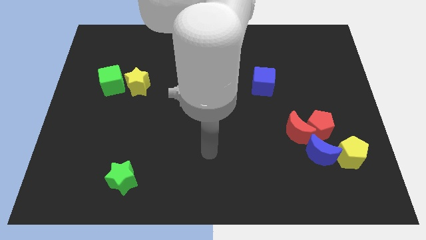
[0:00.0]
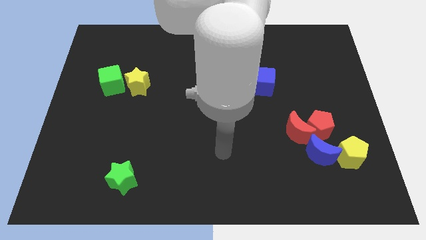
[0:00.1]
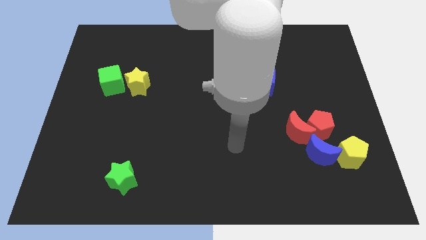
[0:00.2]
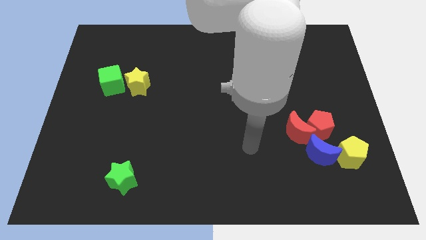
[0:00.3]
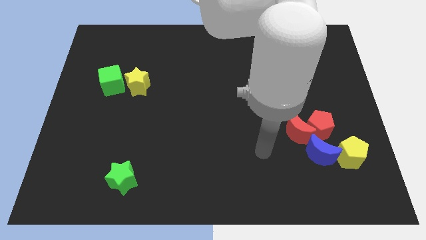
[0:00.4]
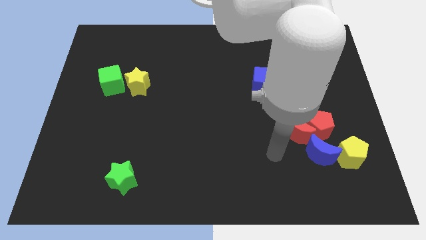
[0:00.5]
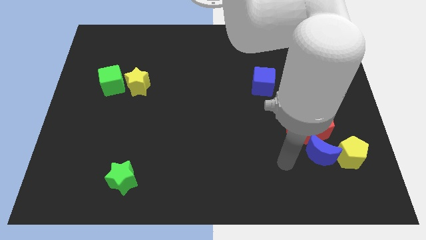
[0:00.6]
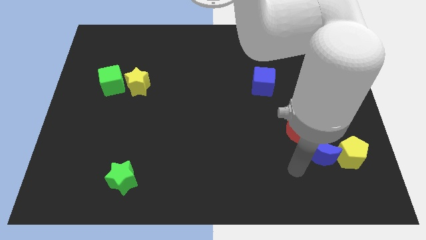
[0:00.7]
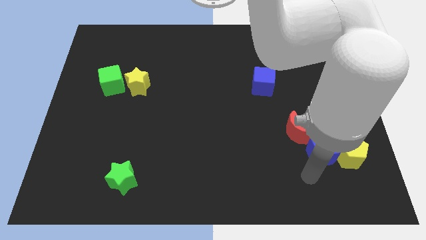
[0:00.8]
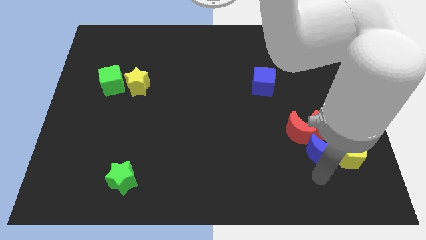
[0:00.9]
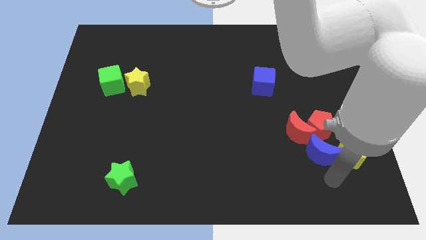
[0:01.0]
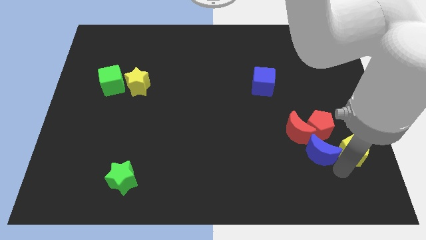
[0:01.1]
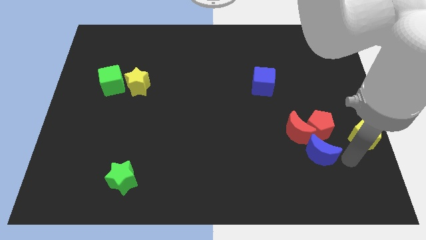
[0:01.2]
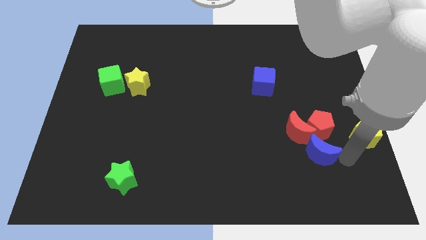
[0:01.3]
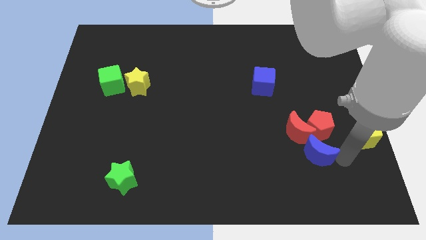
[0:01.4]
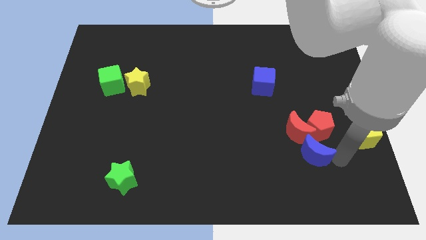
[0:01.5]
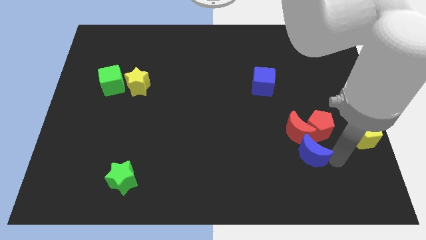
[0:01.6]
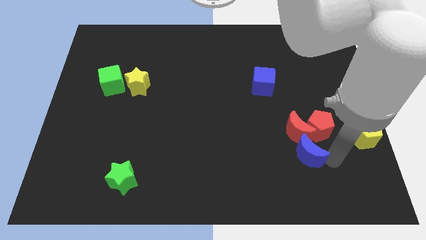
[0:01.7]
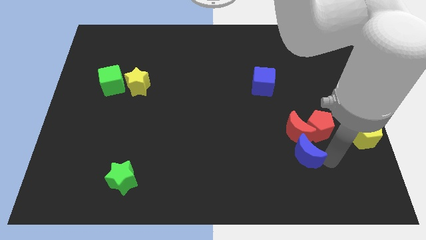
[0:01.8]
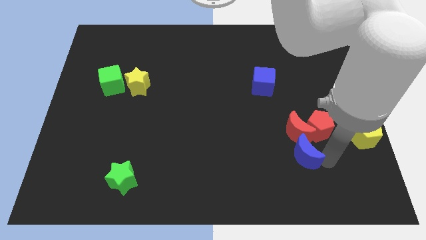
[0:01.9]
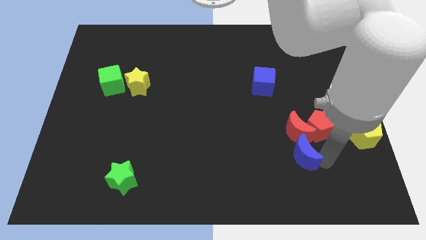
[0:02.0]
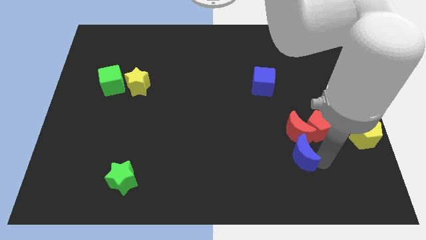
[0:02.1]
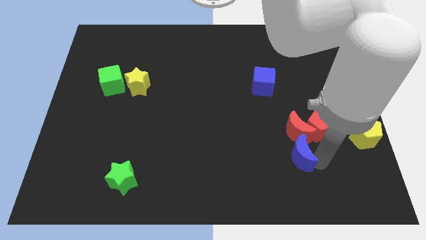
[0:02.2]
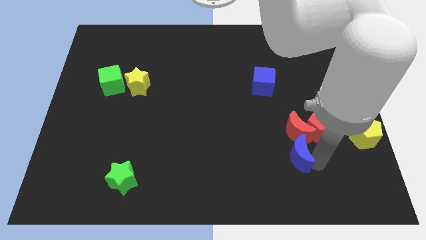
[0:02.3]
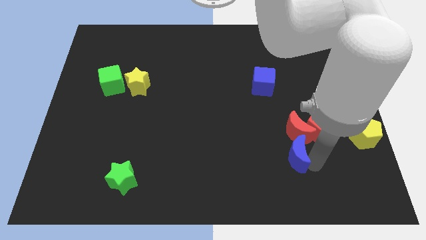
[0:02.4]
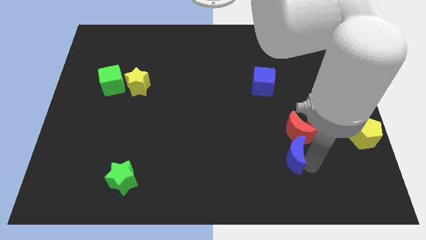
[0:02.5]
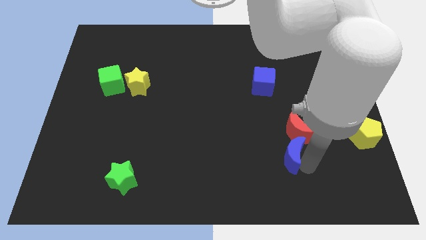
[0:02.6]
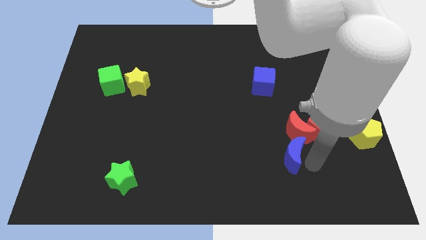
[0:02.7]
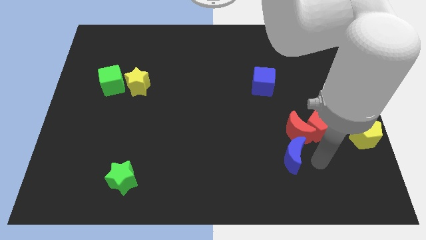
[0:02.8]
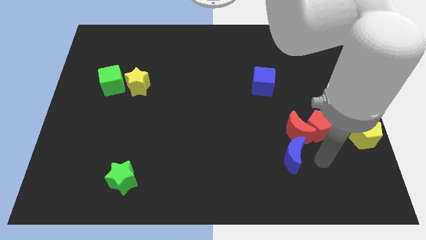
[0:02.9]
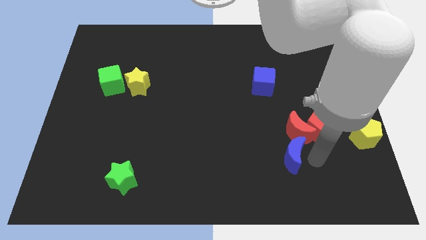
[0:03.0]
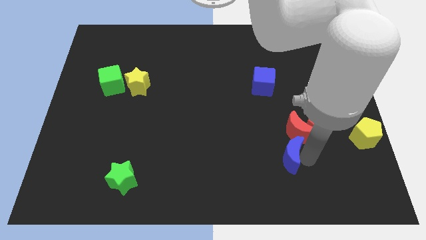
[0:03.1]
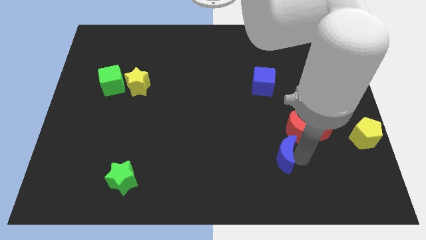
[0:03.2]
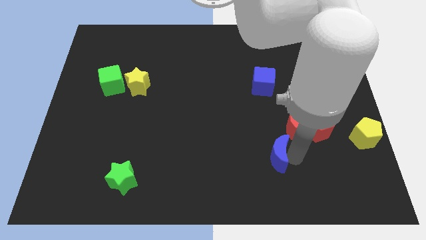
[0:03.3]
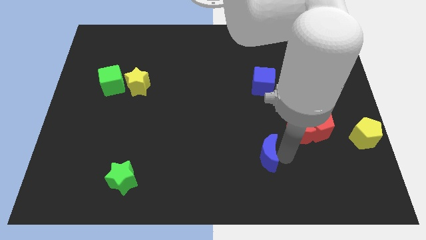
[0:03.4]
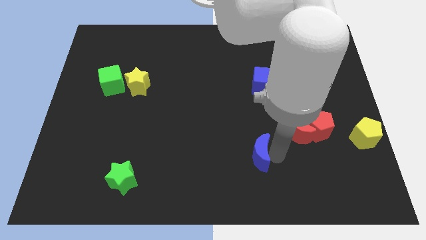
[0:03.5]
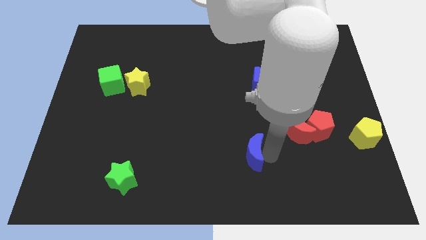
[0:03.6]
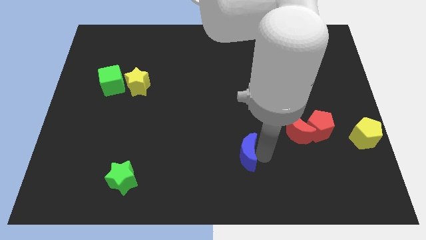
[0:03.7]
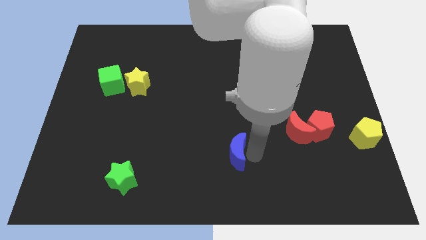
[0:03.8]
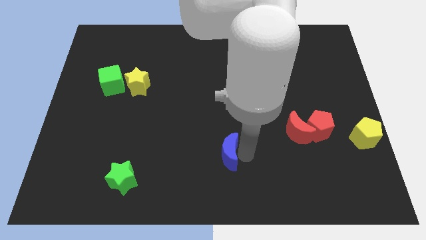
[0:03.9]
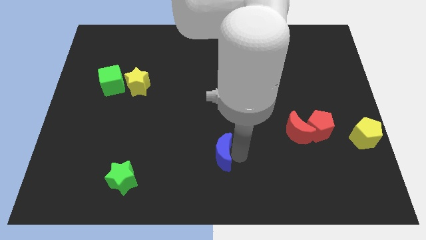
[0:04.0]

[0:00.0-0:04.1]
move the blue moon to the left

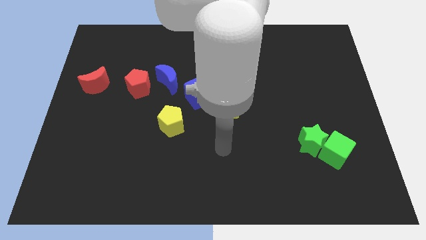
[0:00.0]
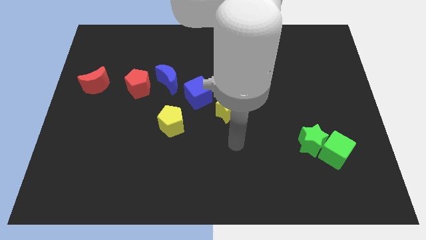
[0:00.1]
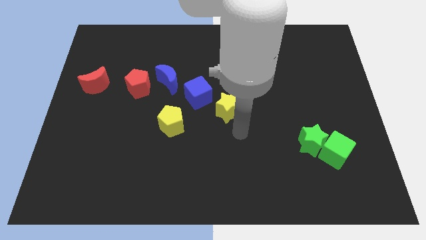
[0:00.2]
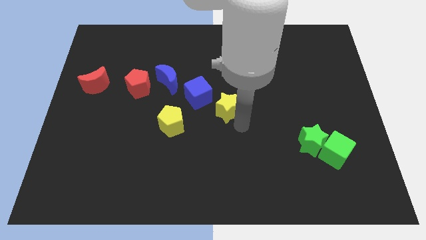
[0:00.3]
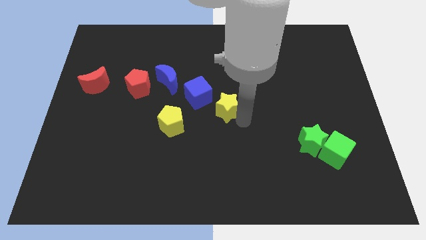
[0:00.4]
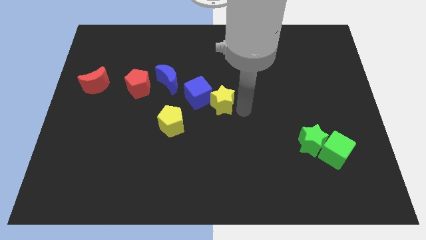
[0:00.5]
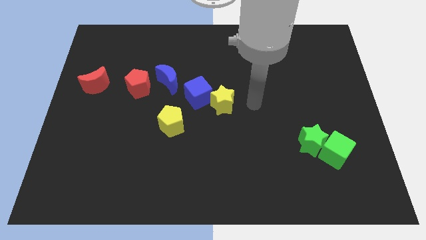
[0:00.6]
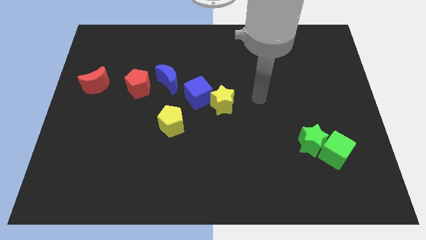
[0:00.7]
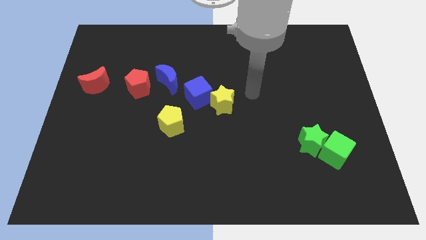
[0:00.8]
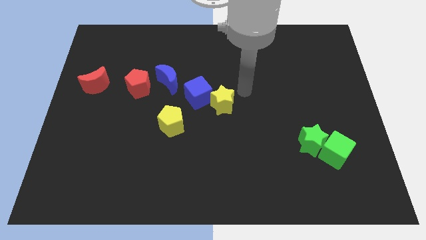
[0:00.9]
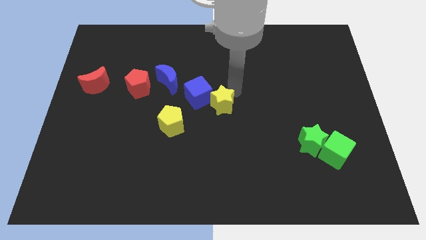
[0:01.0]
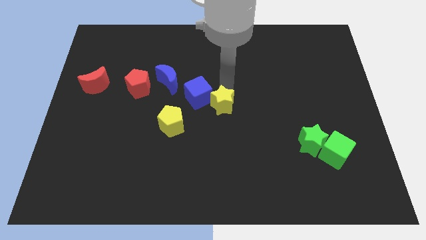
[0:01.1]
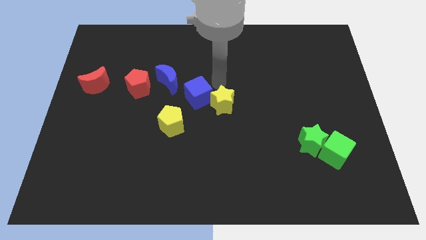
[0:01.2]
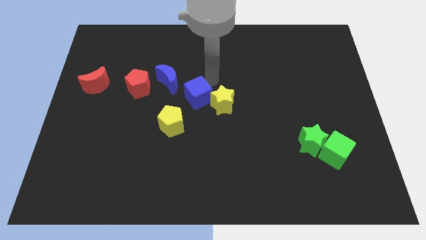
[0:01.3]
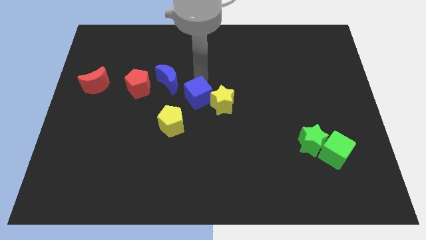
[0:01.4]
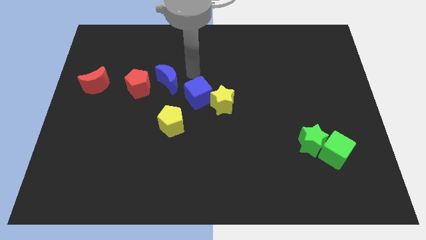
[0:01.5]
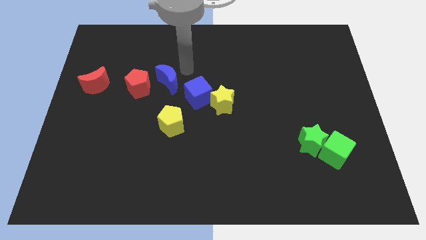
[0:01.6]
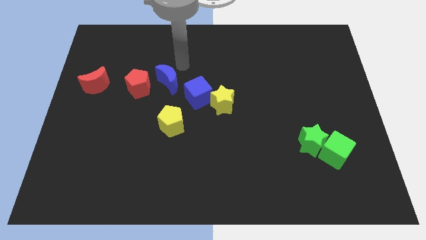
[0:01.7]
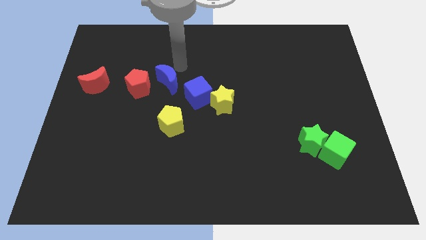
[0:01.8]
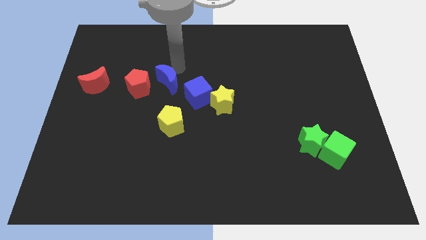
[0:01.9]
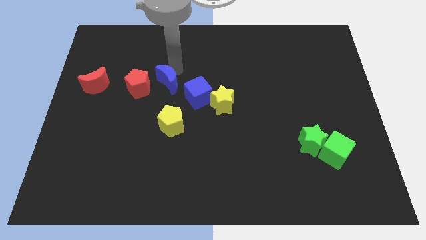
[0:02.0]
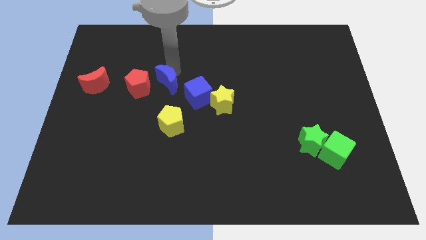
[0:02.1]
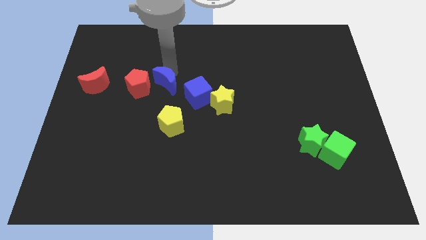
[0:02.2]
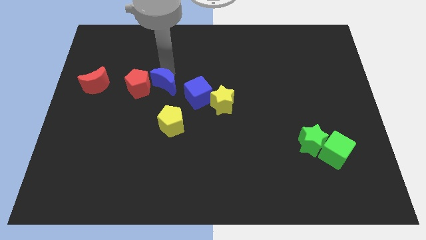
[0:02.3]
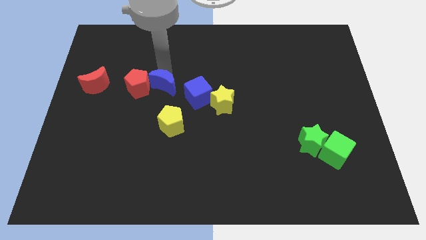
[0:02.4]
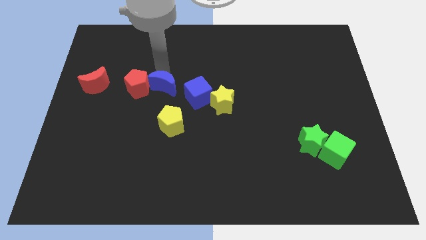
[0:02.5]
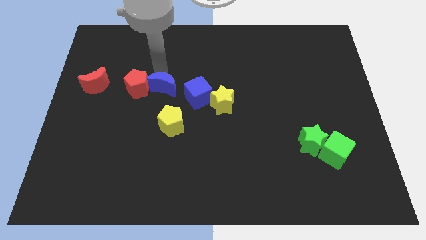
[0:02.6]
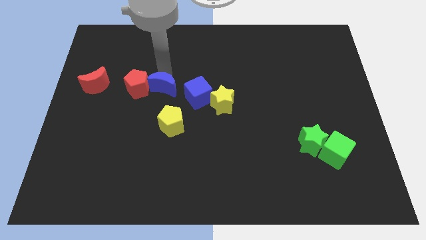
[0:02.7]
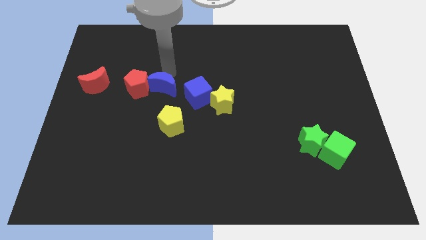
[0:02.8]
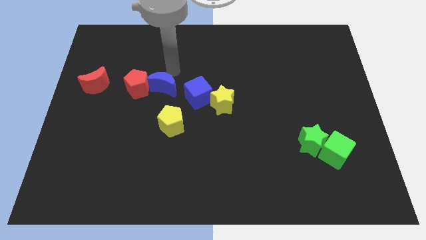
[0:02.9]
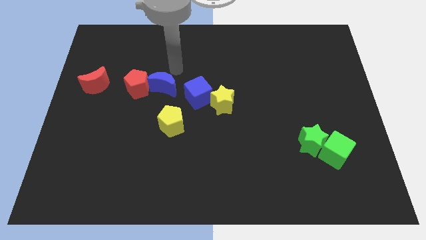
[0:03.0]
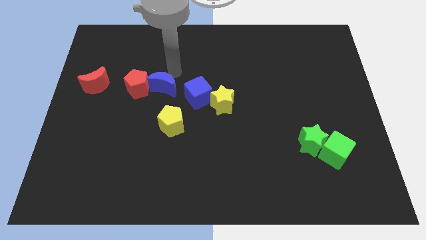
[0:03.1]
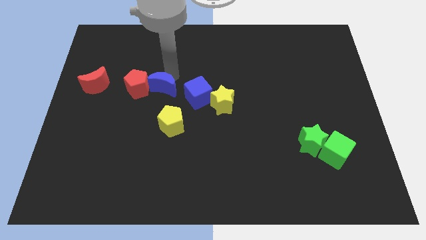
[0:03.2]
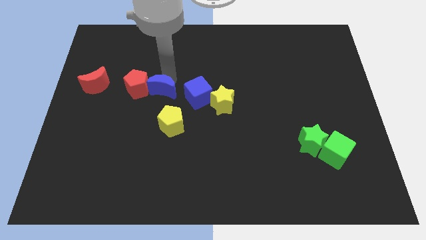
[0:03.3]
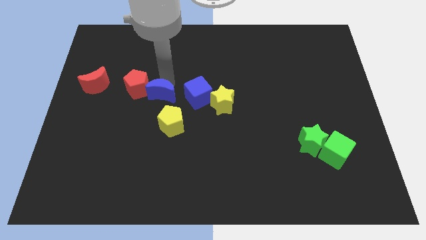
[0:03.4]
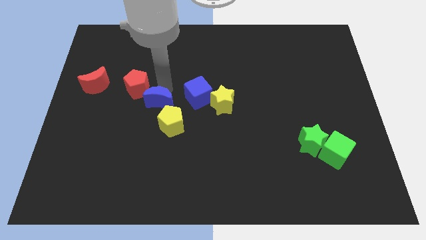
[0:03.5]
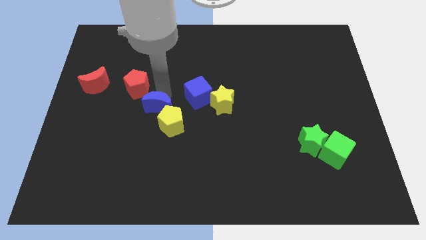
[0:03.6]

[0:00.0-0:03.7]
move the blue moon downwards somewhat

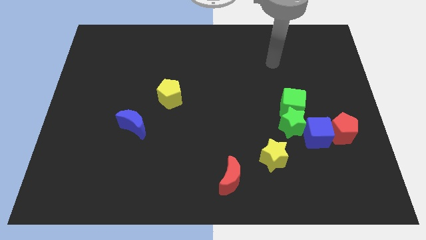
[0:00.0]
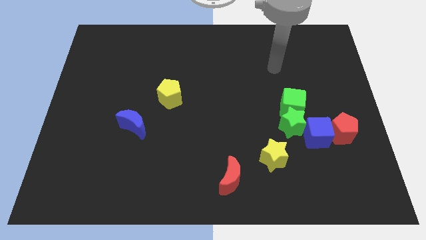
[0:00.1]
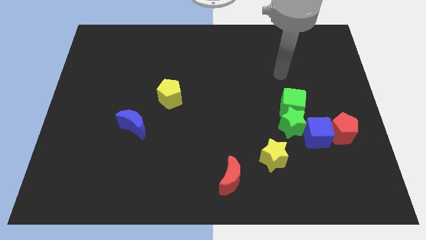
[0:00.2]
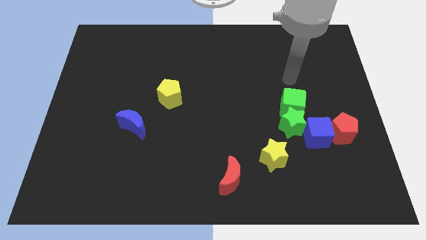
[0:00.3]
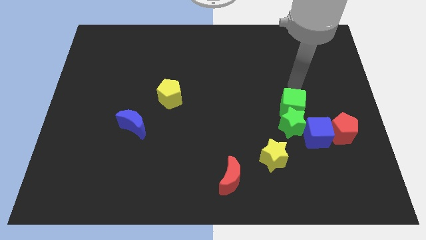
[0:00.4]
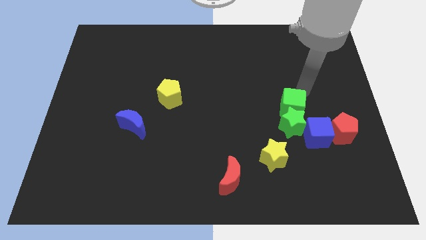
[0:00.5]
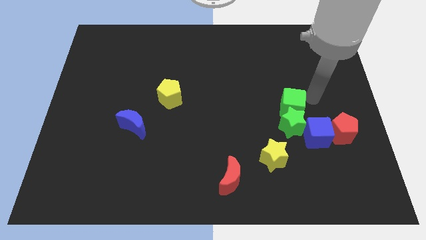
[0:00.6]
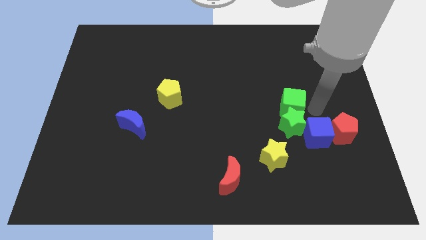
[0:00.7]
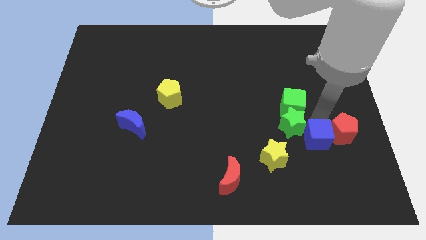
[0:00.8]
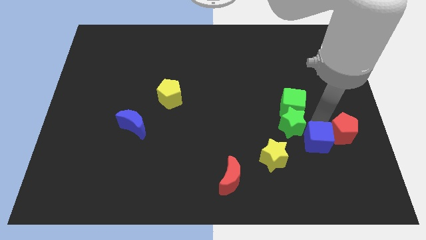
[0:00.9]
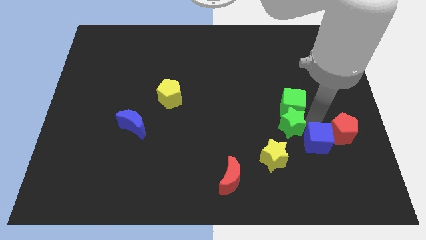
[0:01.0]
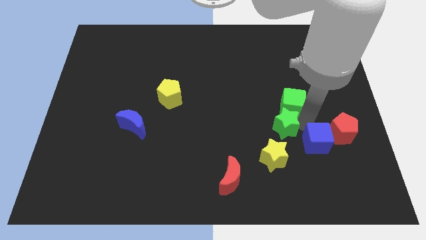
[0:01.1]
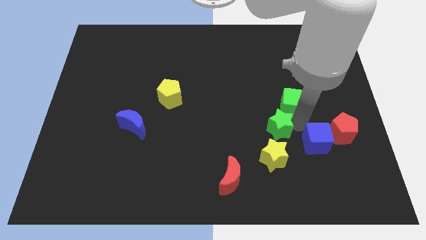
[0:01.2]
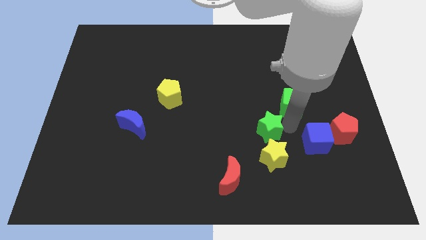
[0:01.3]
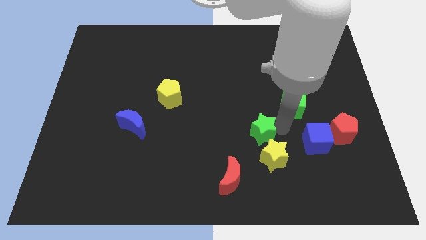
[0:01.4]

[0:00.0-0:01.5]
slide the green star a bit left
